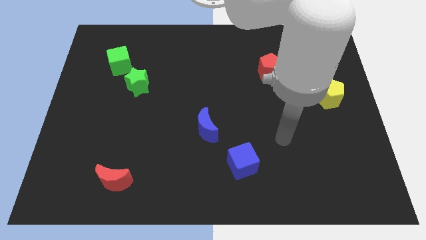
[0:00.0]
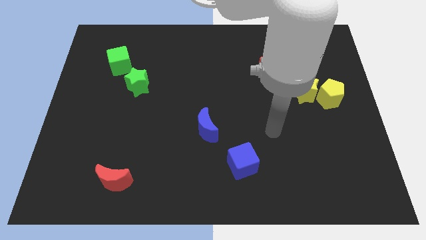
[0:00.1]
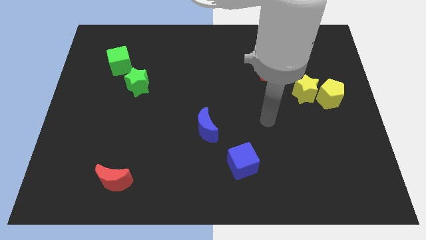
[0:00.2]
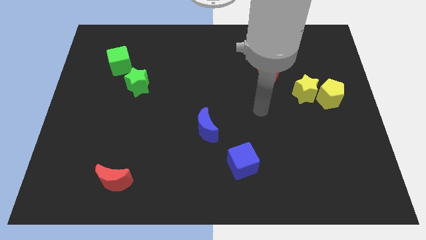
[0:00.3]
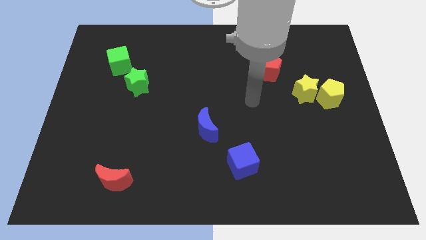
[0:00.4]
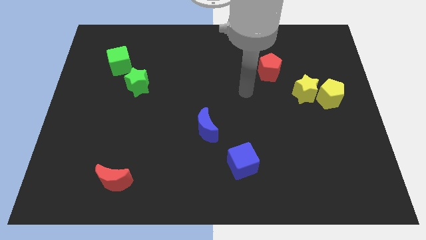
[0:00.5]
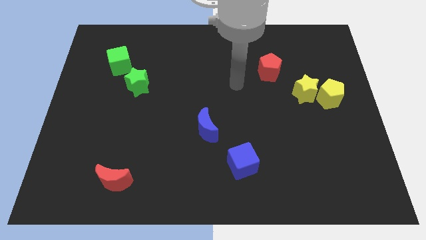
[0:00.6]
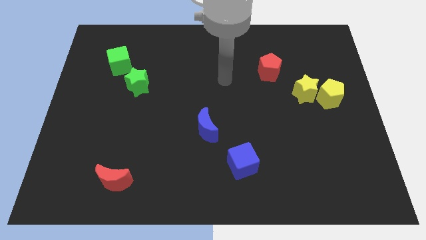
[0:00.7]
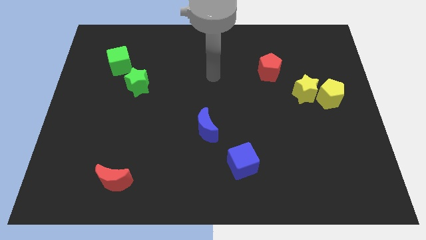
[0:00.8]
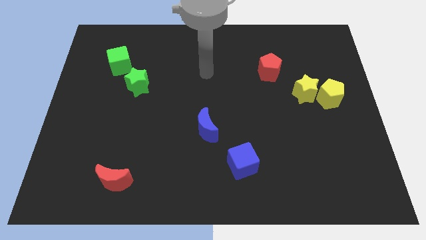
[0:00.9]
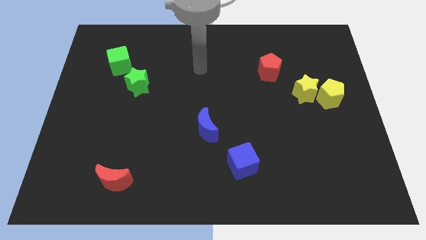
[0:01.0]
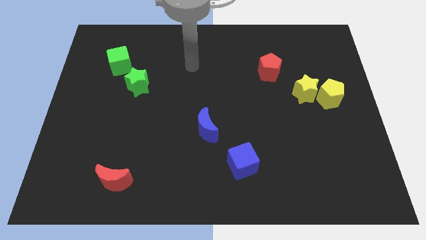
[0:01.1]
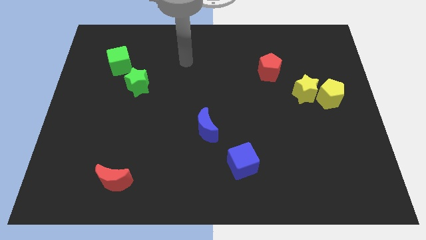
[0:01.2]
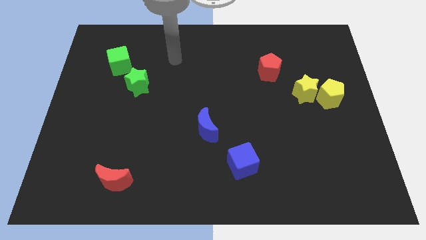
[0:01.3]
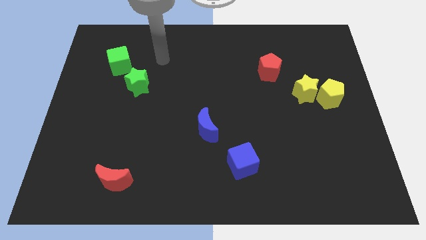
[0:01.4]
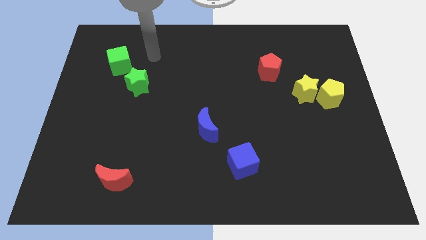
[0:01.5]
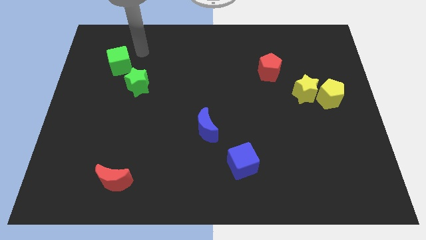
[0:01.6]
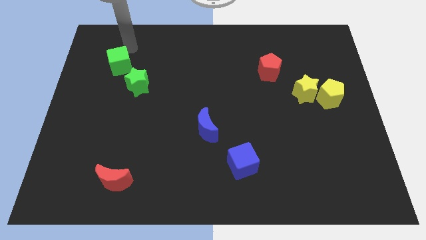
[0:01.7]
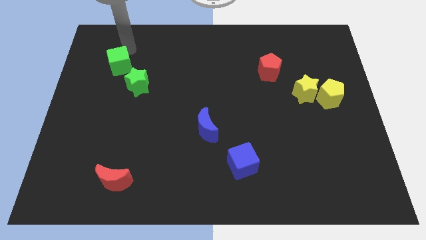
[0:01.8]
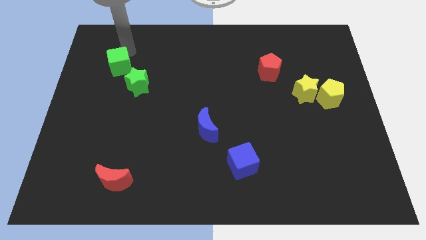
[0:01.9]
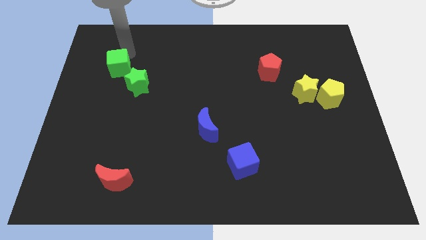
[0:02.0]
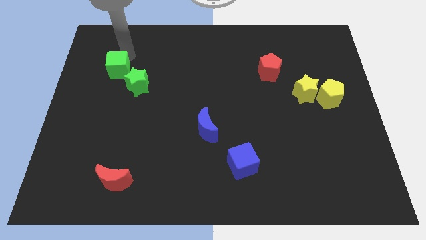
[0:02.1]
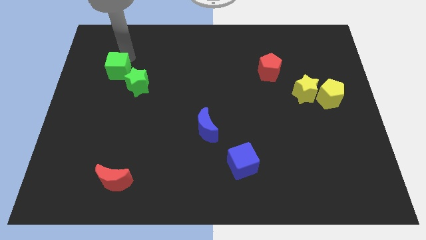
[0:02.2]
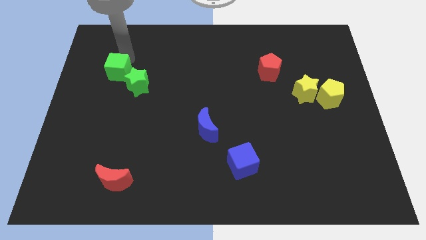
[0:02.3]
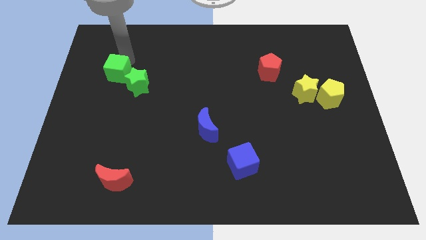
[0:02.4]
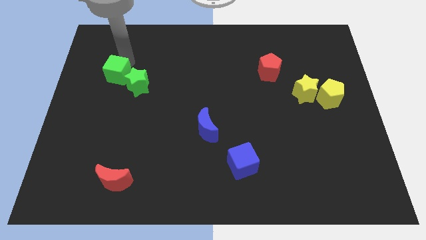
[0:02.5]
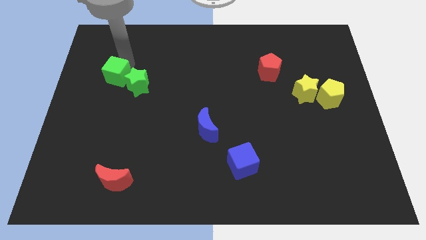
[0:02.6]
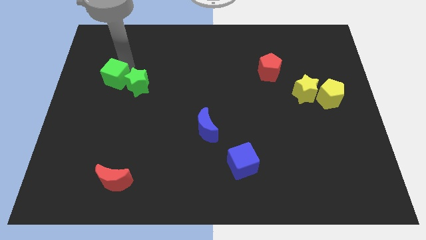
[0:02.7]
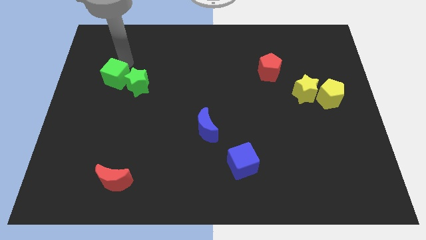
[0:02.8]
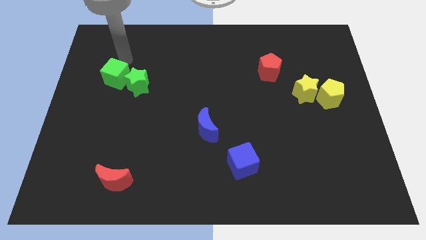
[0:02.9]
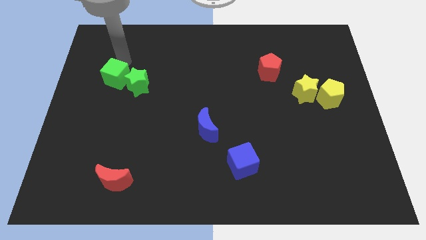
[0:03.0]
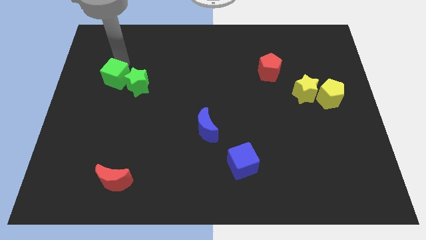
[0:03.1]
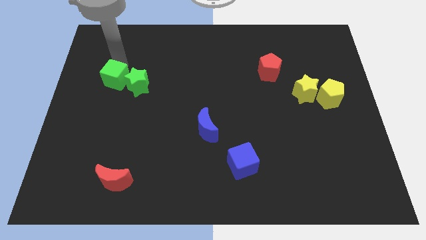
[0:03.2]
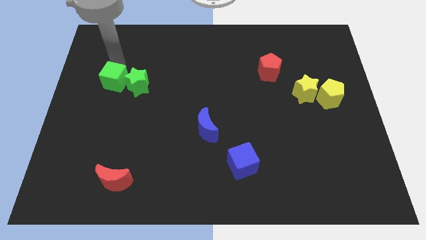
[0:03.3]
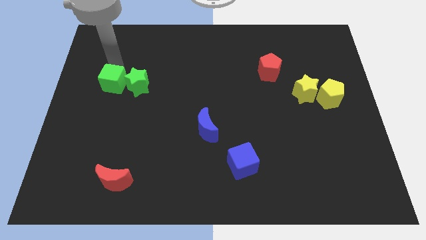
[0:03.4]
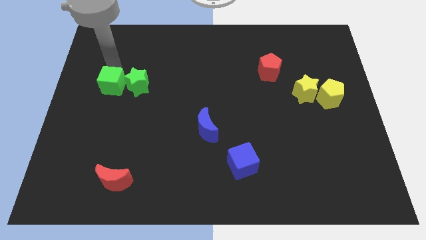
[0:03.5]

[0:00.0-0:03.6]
move the green cube downwards somewhat

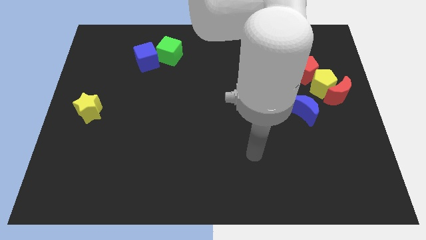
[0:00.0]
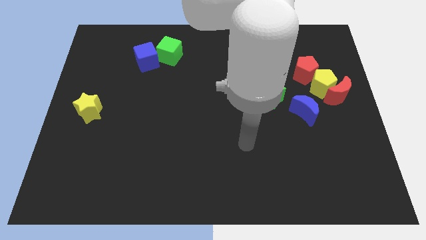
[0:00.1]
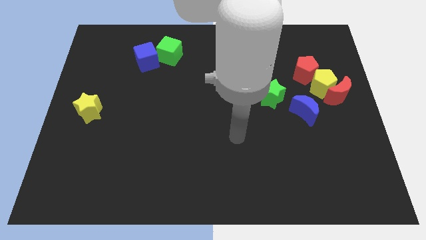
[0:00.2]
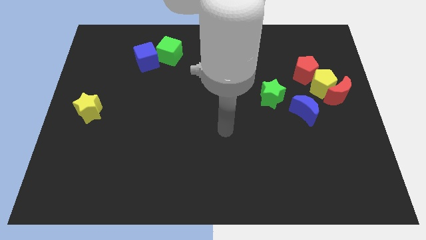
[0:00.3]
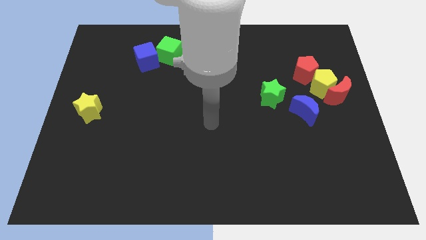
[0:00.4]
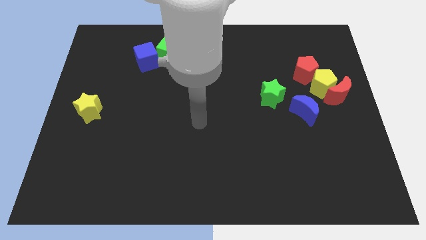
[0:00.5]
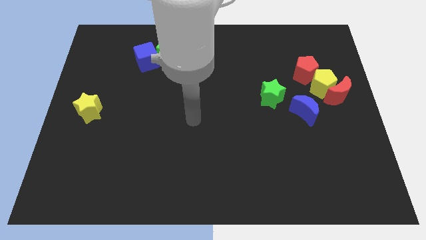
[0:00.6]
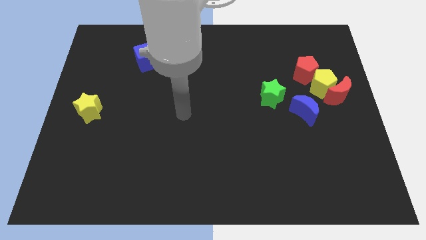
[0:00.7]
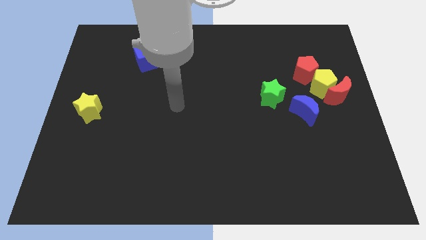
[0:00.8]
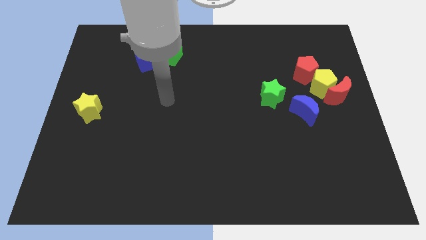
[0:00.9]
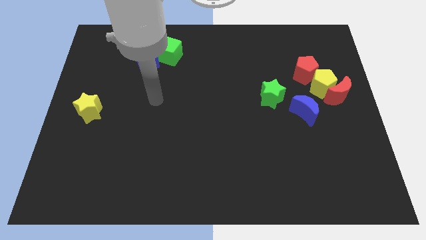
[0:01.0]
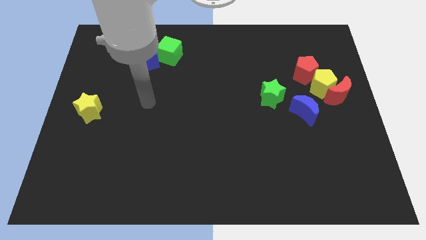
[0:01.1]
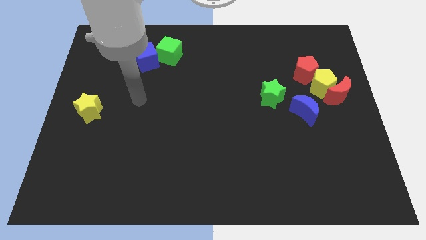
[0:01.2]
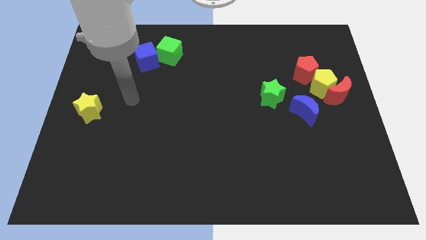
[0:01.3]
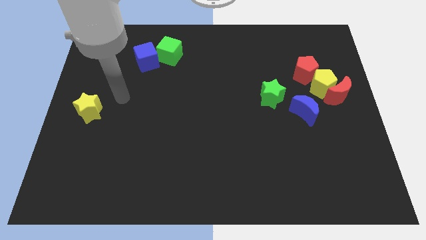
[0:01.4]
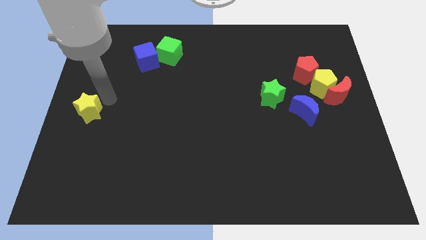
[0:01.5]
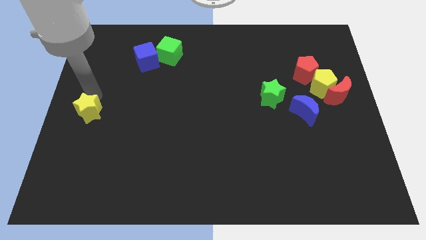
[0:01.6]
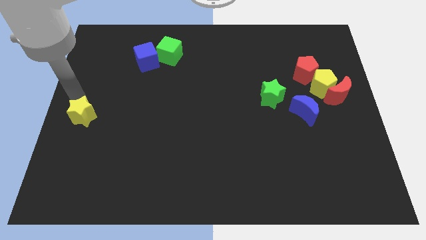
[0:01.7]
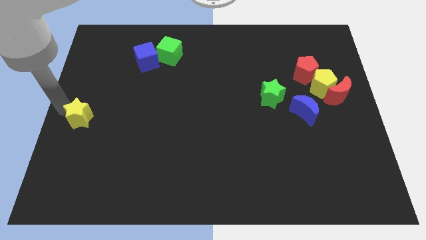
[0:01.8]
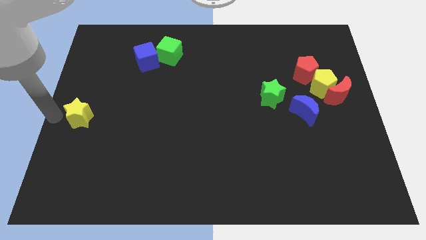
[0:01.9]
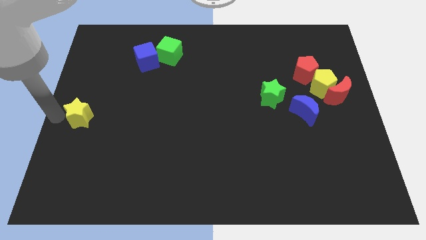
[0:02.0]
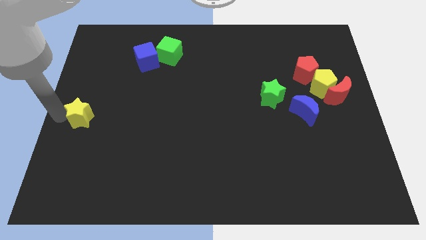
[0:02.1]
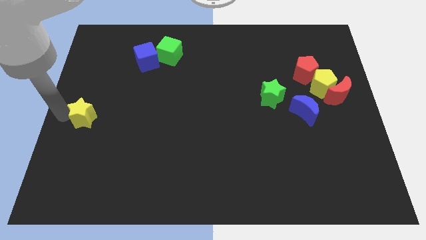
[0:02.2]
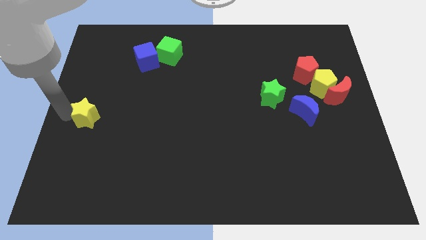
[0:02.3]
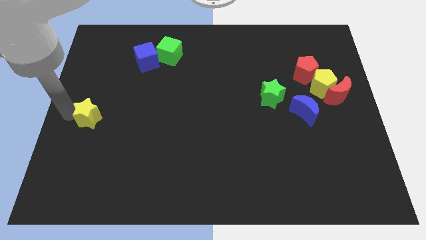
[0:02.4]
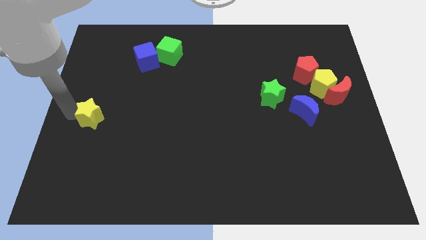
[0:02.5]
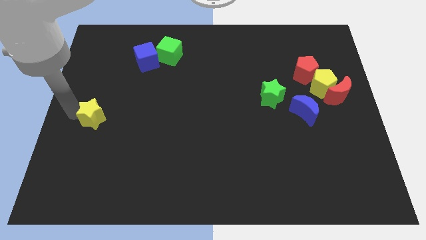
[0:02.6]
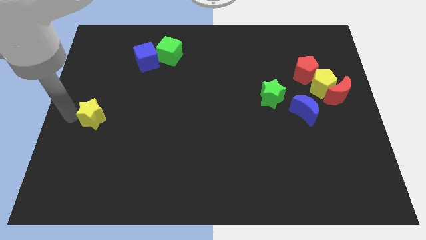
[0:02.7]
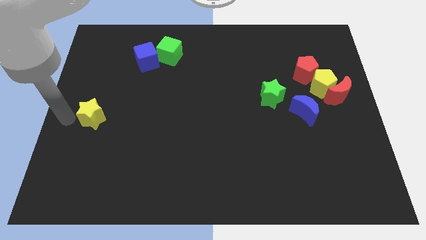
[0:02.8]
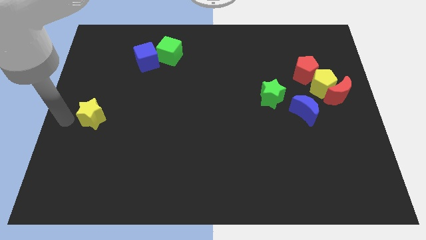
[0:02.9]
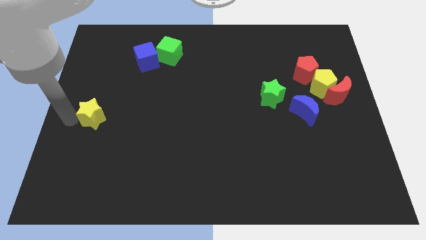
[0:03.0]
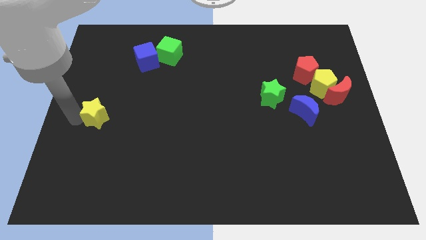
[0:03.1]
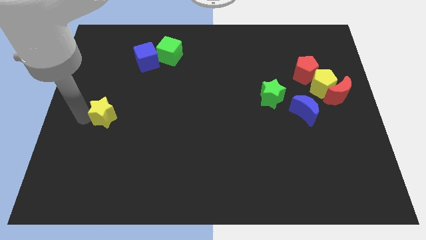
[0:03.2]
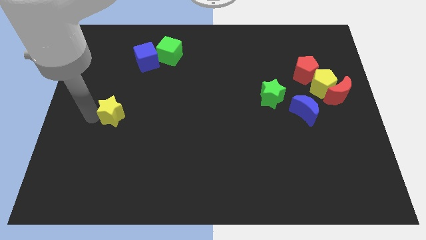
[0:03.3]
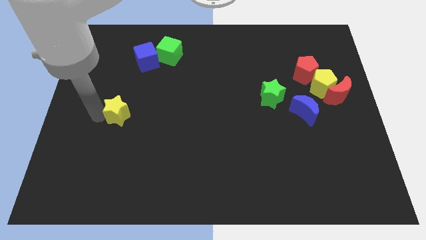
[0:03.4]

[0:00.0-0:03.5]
move the yellow star to the right a little

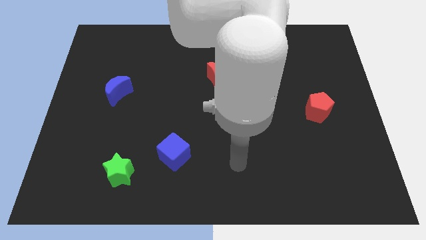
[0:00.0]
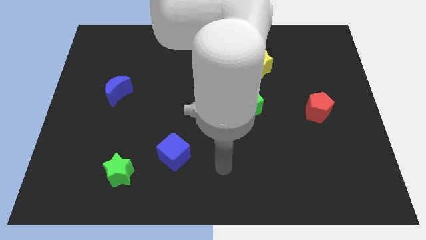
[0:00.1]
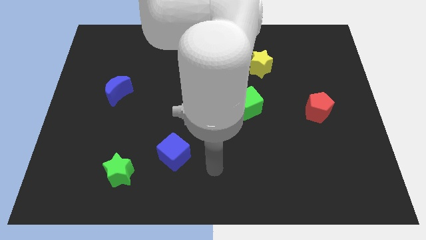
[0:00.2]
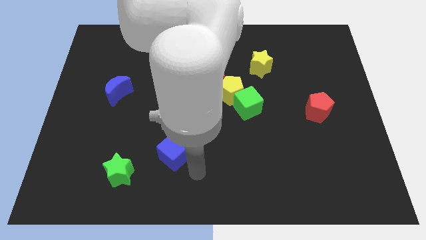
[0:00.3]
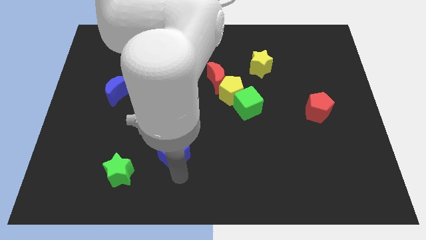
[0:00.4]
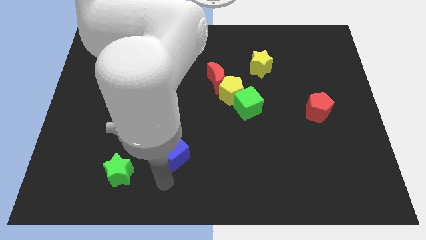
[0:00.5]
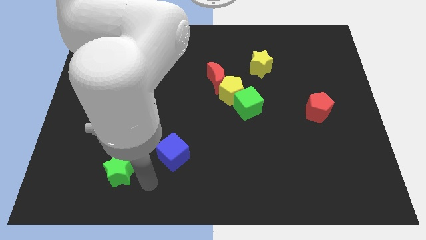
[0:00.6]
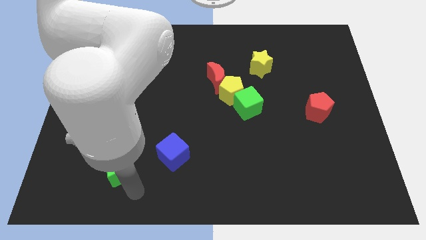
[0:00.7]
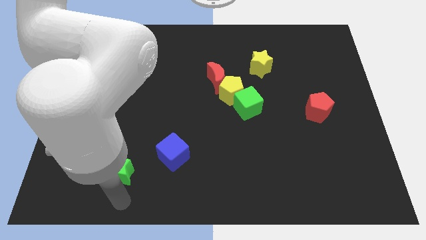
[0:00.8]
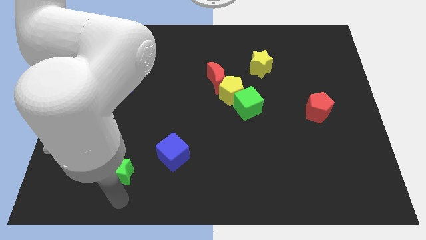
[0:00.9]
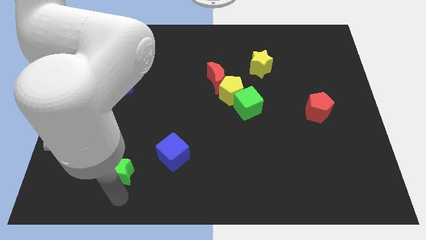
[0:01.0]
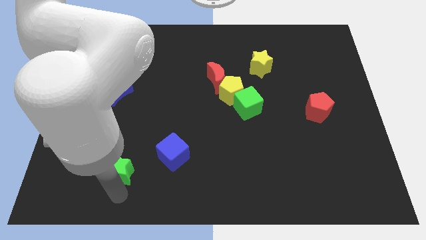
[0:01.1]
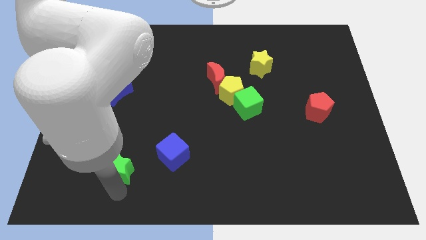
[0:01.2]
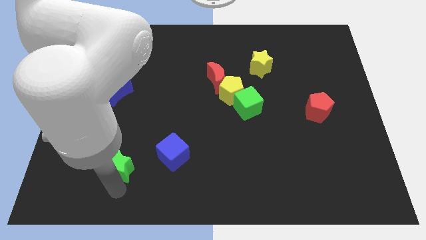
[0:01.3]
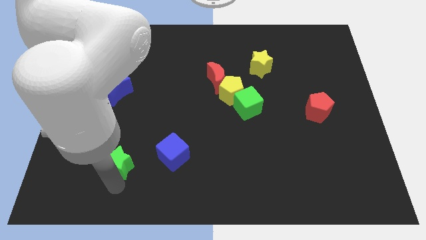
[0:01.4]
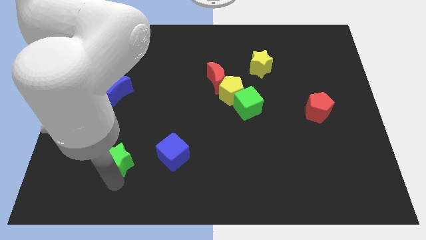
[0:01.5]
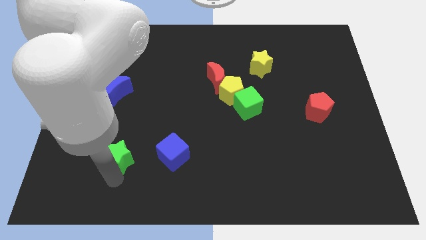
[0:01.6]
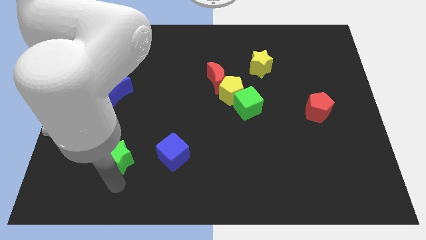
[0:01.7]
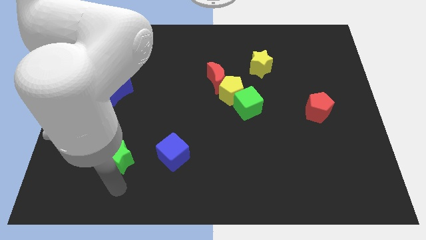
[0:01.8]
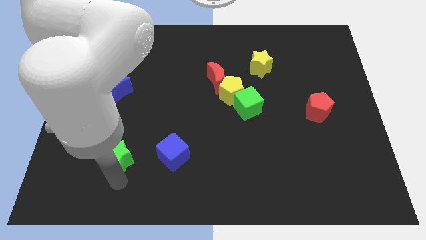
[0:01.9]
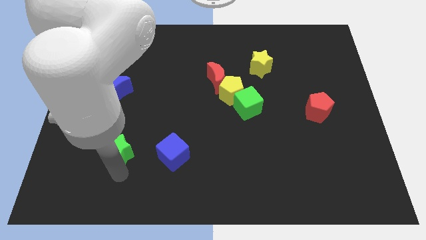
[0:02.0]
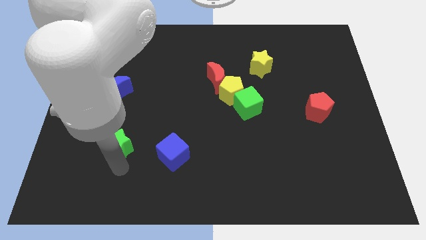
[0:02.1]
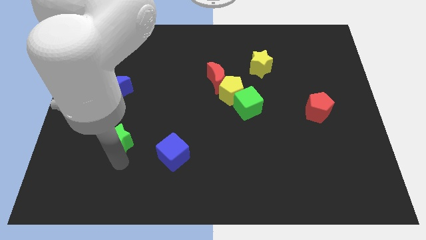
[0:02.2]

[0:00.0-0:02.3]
slightly push the green star up
